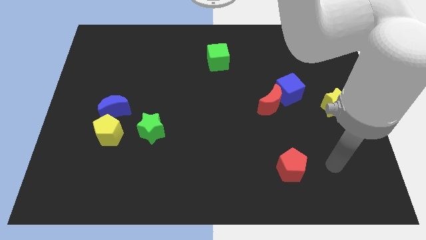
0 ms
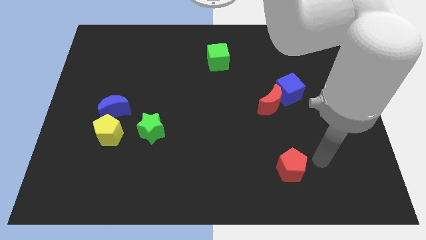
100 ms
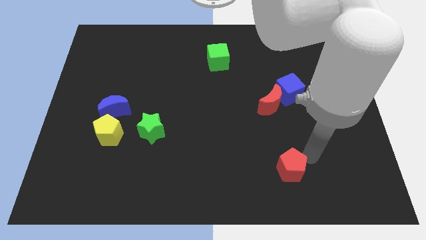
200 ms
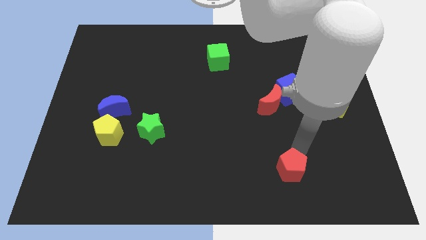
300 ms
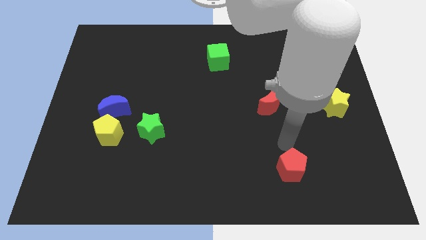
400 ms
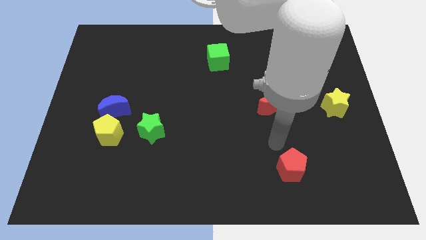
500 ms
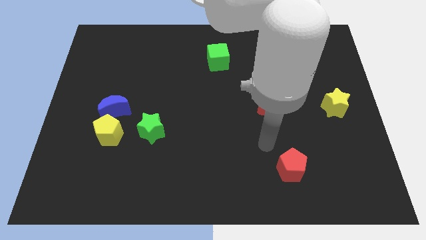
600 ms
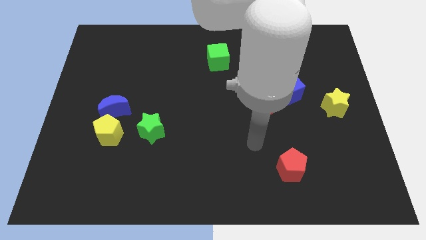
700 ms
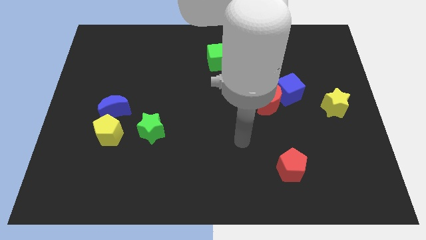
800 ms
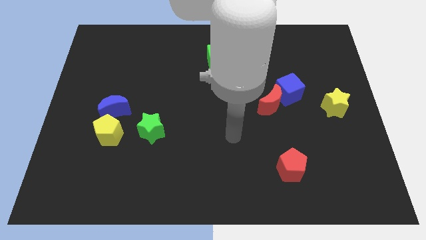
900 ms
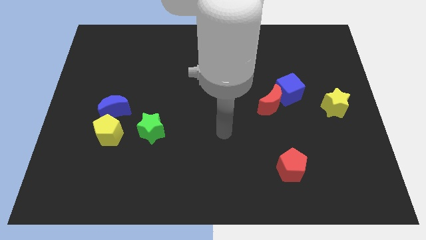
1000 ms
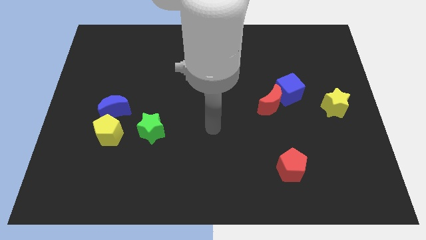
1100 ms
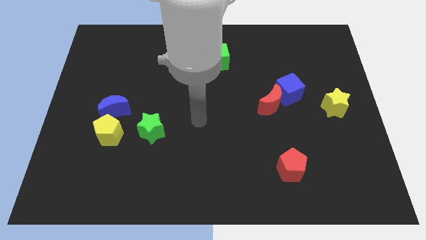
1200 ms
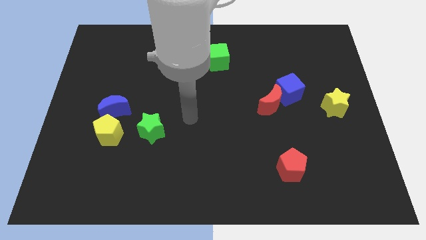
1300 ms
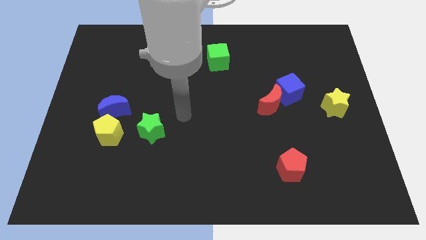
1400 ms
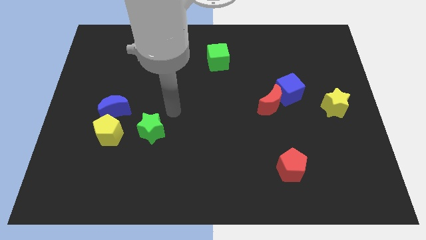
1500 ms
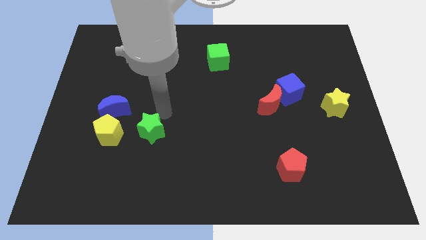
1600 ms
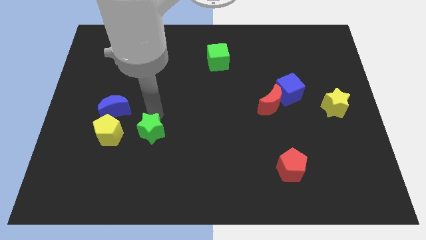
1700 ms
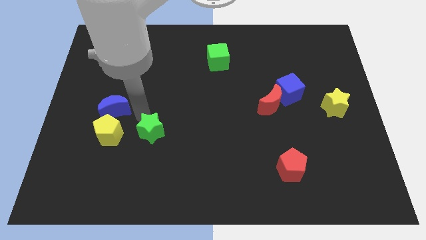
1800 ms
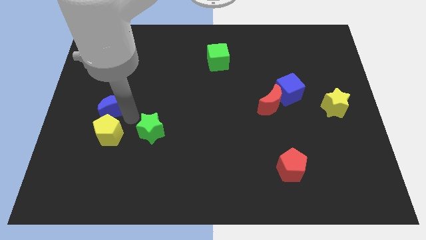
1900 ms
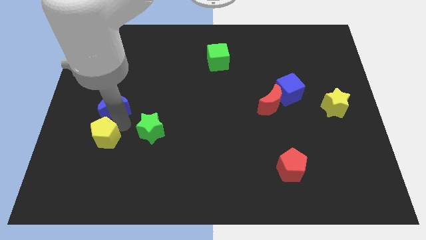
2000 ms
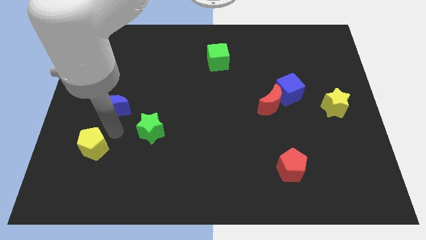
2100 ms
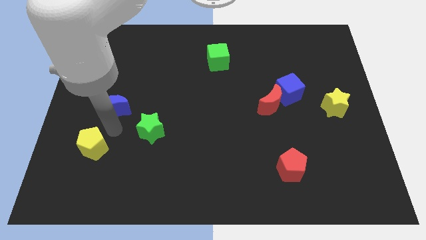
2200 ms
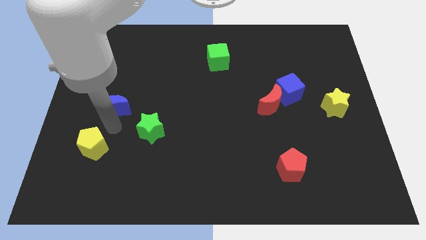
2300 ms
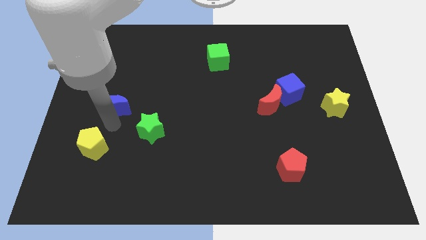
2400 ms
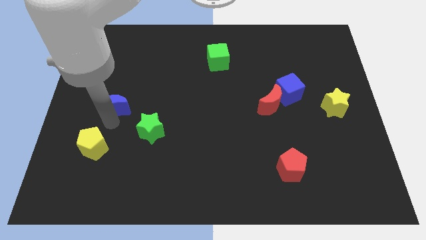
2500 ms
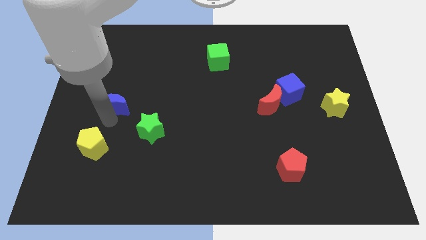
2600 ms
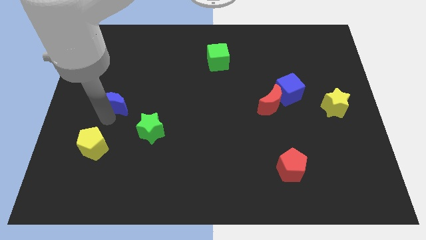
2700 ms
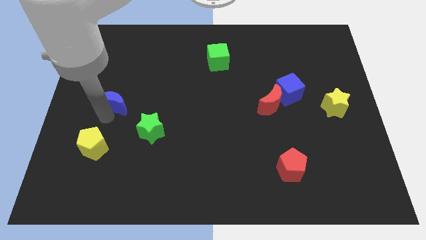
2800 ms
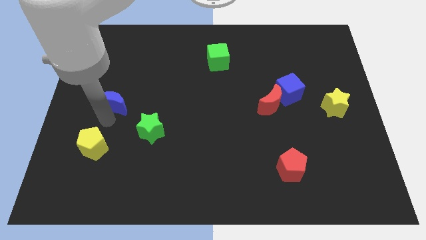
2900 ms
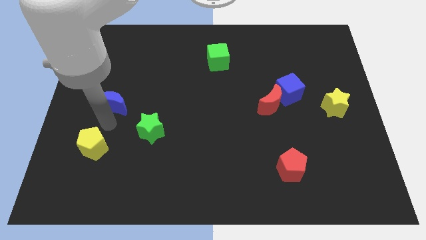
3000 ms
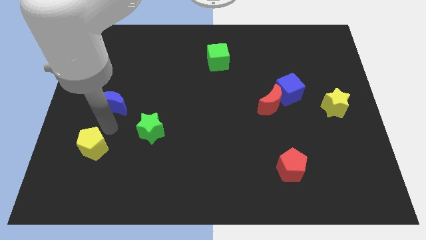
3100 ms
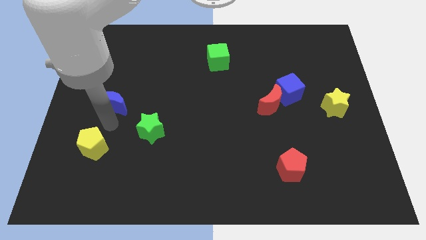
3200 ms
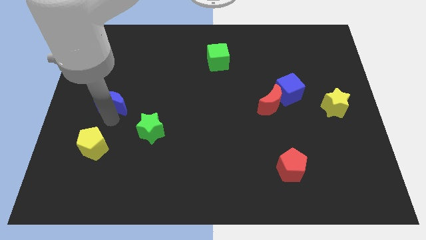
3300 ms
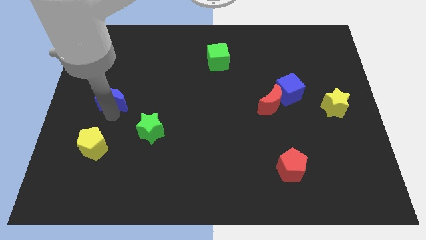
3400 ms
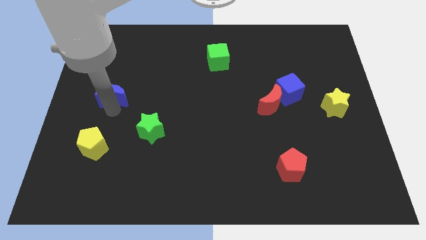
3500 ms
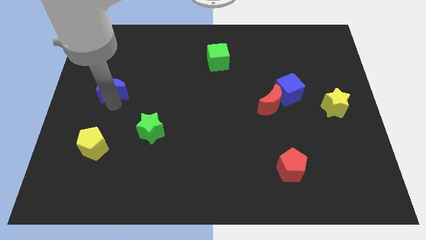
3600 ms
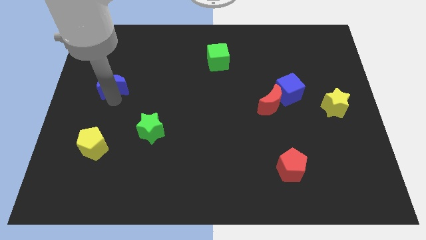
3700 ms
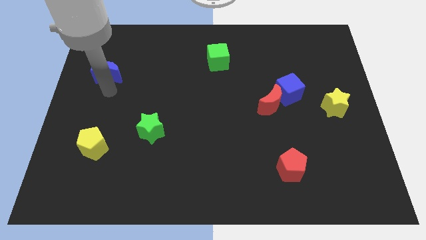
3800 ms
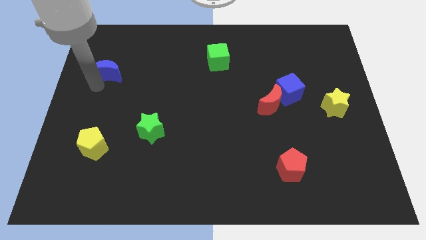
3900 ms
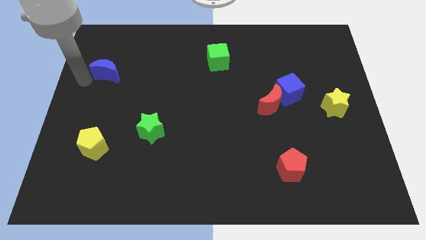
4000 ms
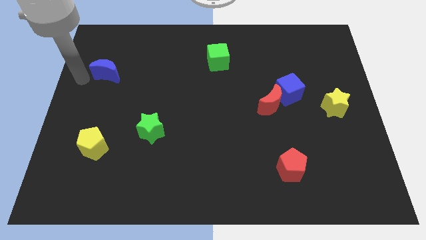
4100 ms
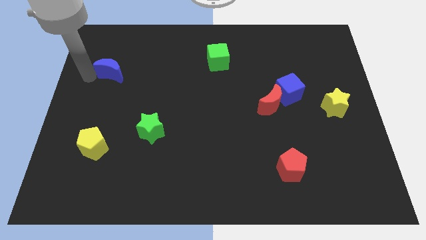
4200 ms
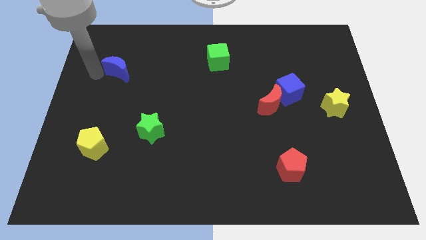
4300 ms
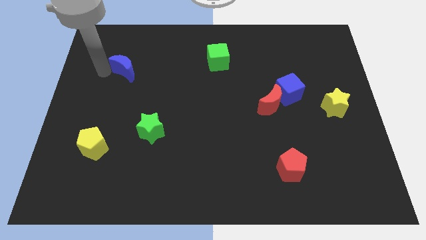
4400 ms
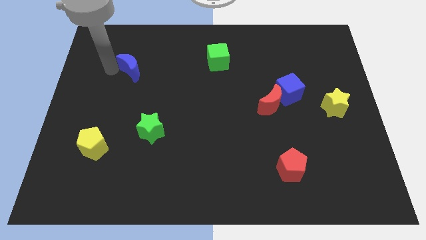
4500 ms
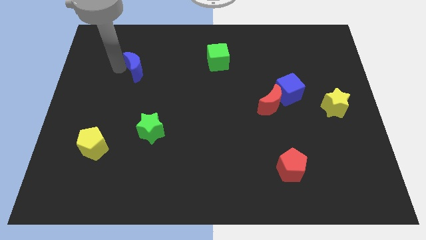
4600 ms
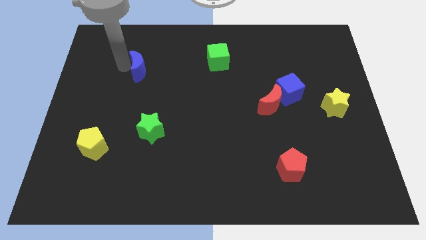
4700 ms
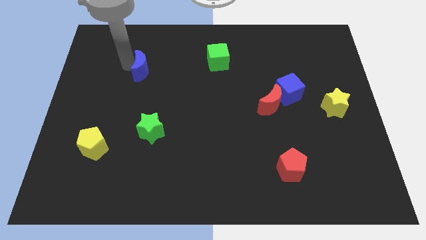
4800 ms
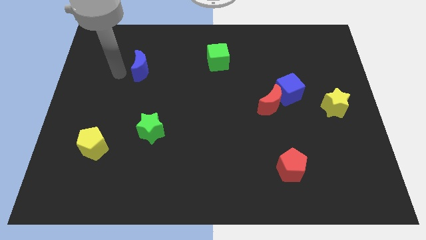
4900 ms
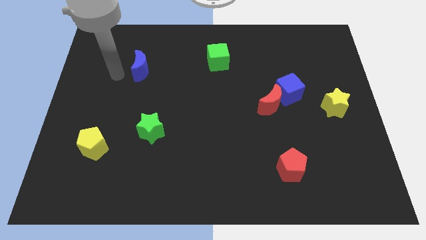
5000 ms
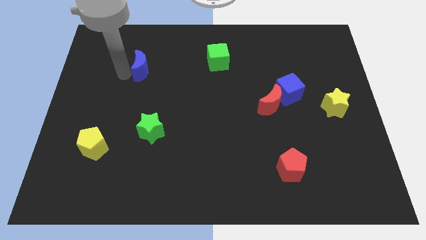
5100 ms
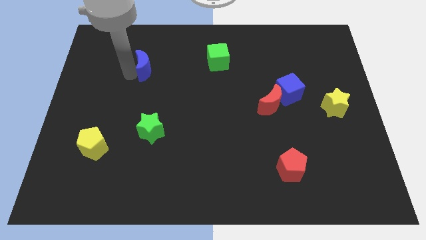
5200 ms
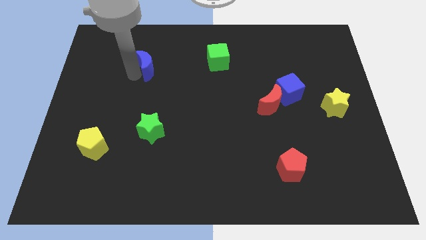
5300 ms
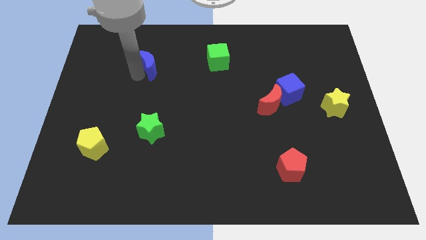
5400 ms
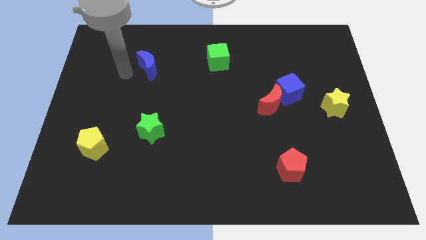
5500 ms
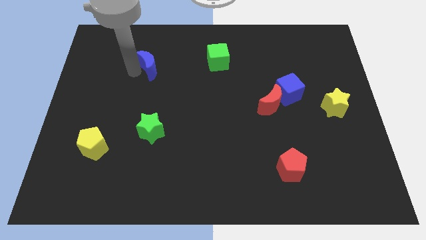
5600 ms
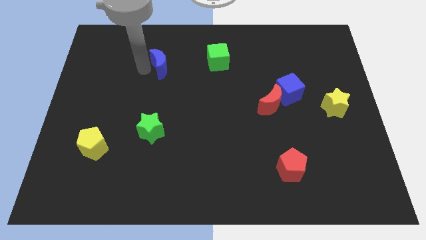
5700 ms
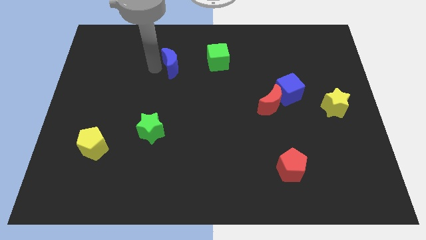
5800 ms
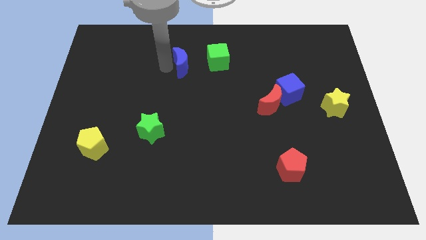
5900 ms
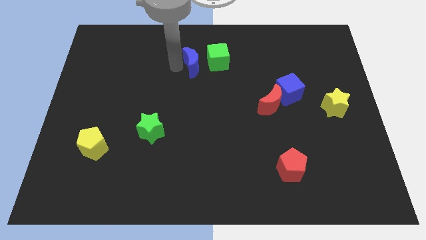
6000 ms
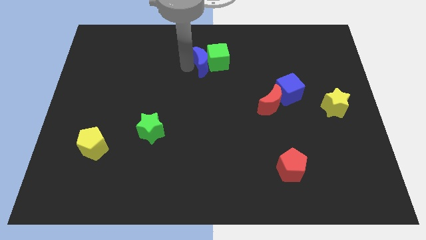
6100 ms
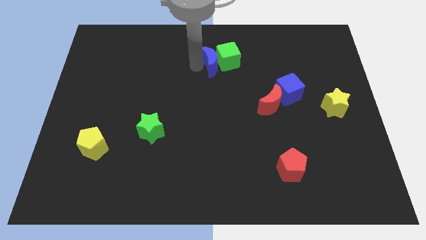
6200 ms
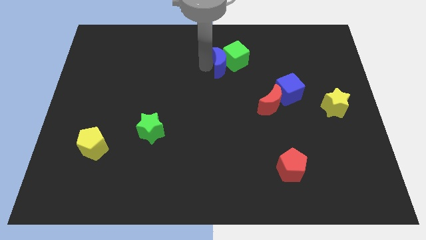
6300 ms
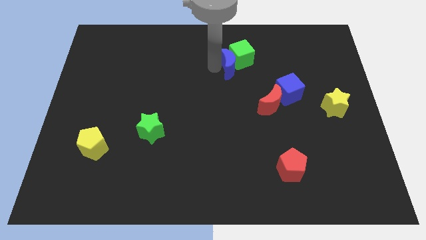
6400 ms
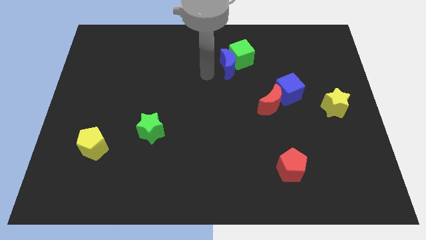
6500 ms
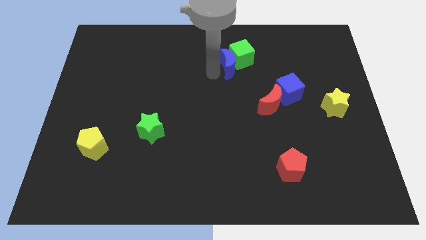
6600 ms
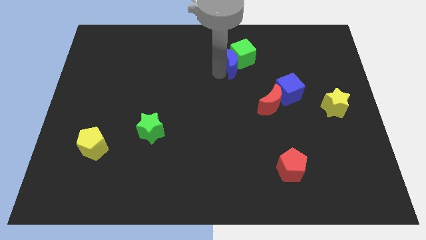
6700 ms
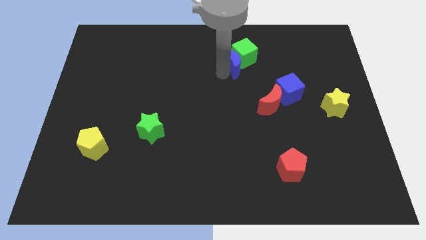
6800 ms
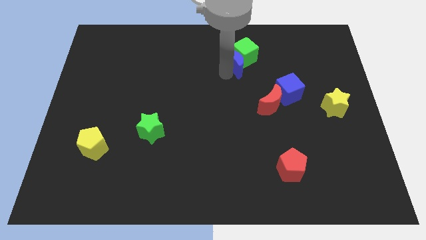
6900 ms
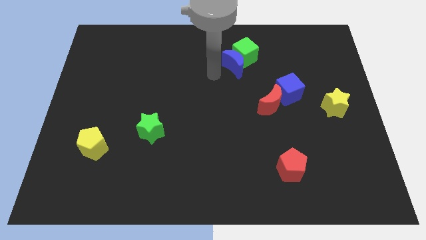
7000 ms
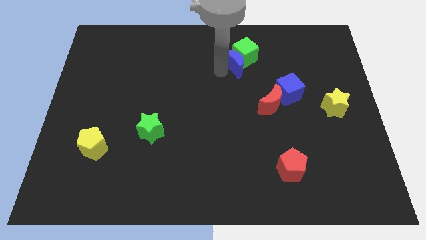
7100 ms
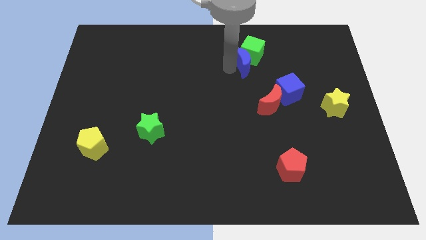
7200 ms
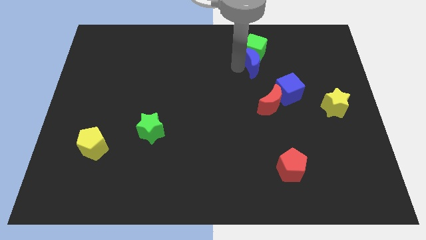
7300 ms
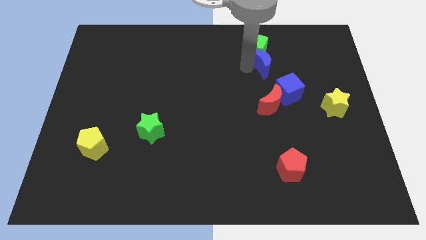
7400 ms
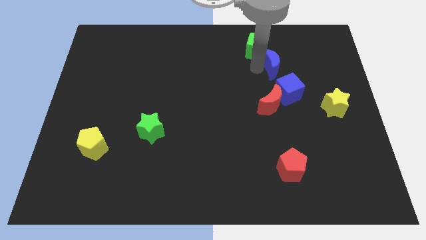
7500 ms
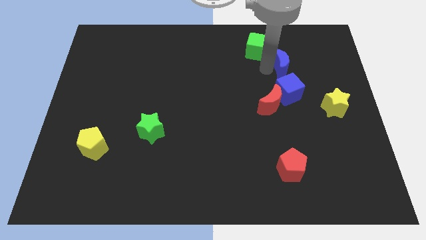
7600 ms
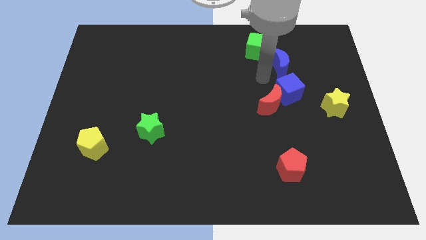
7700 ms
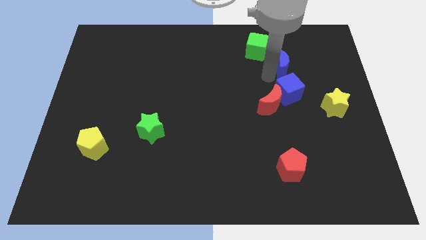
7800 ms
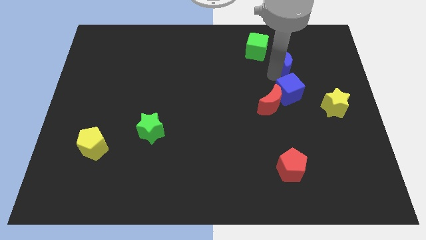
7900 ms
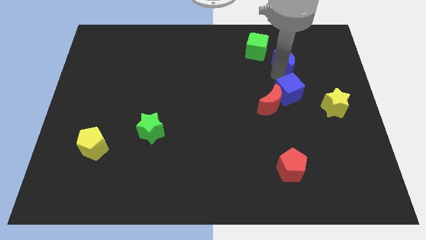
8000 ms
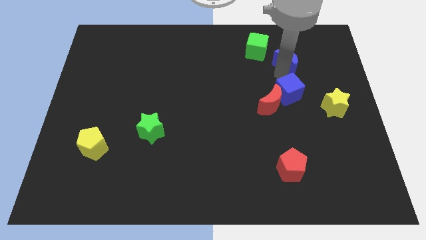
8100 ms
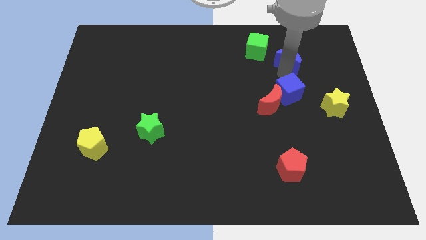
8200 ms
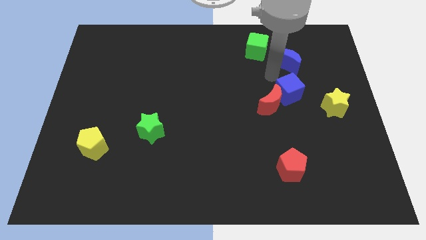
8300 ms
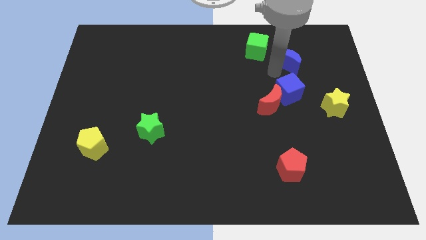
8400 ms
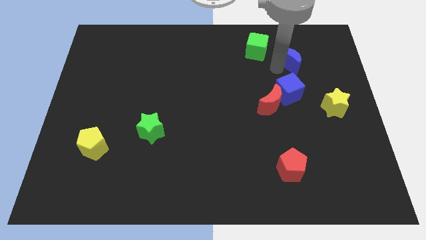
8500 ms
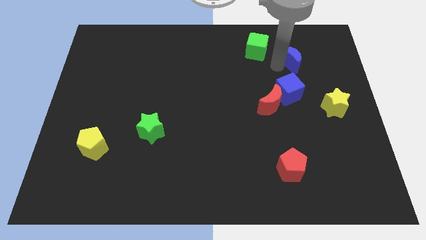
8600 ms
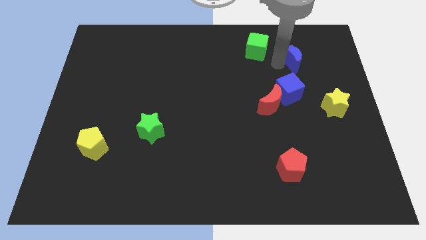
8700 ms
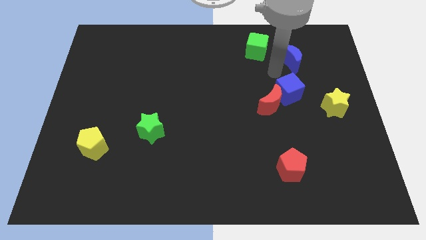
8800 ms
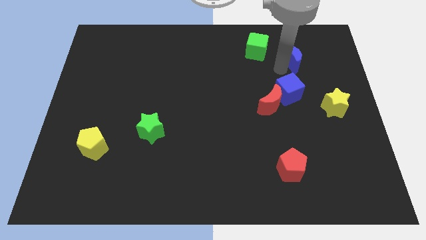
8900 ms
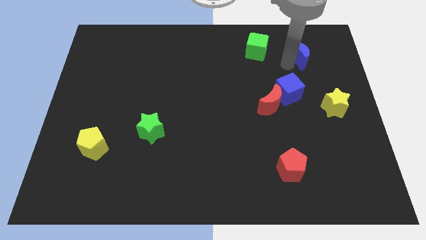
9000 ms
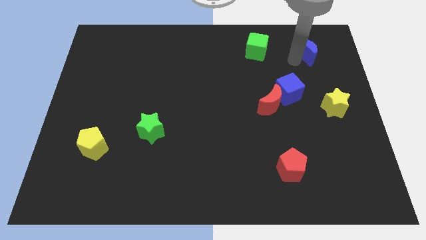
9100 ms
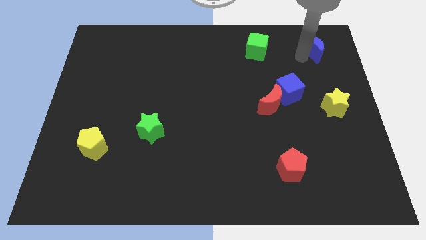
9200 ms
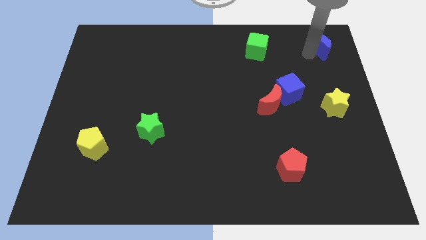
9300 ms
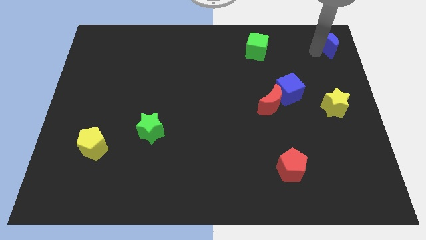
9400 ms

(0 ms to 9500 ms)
slide the blue moon to the top right of the board
